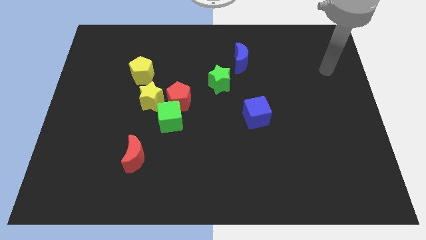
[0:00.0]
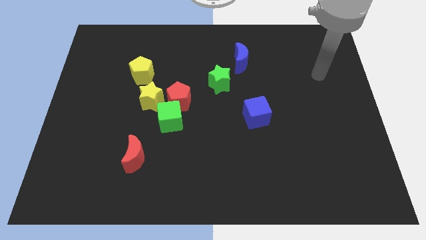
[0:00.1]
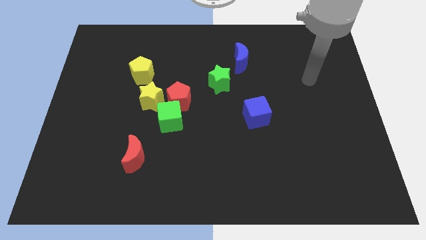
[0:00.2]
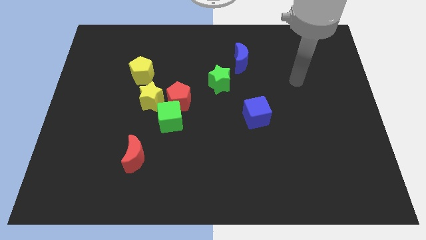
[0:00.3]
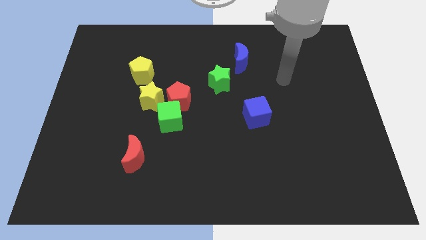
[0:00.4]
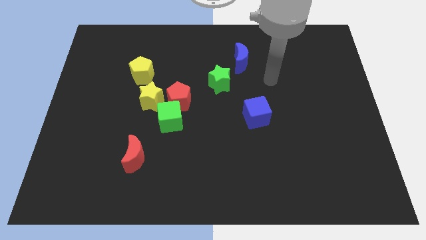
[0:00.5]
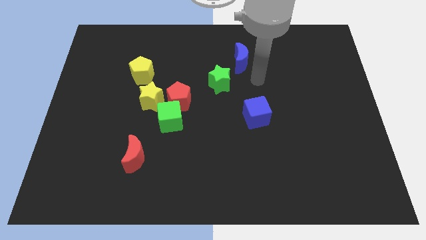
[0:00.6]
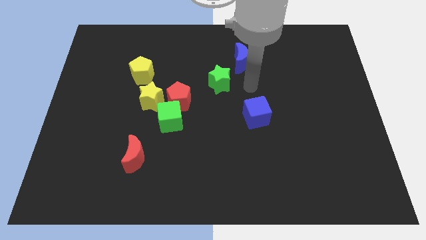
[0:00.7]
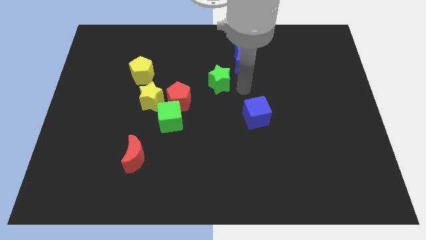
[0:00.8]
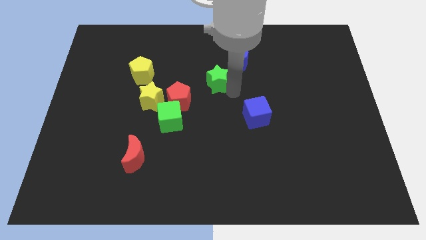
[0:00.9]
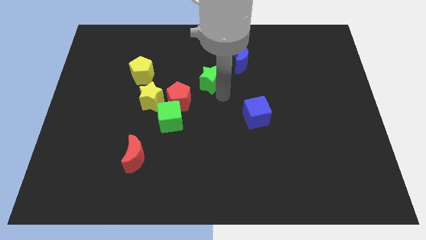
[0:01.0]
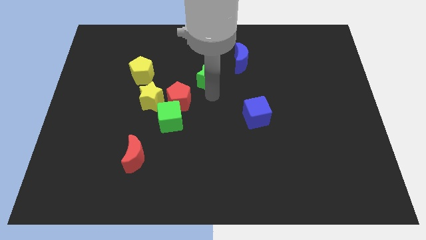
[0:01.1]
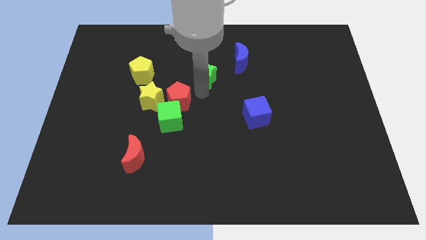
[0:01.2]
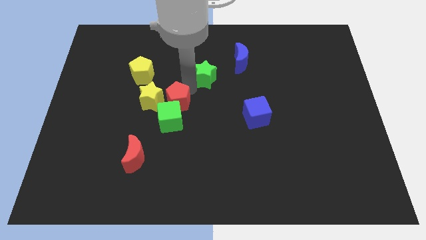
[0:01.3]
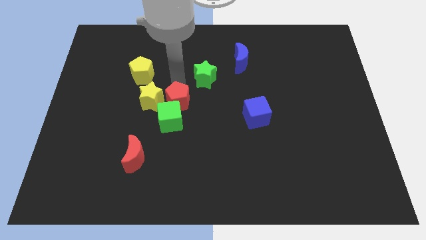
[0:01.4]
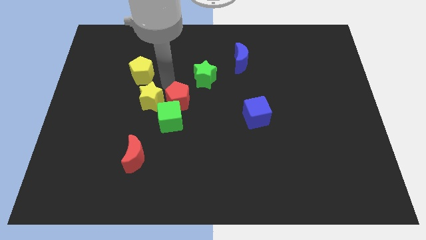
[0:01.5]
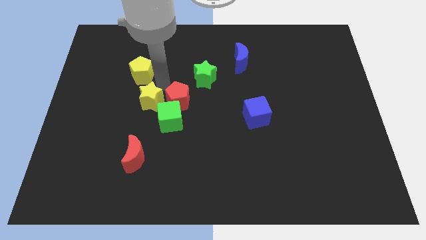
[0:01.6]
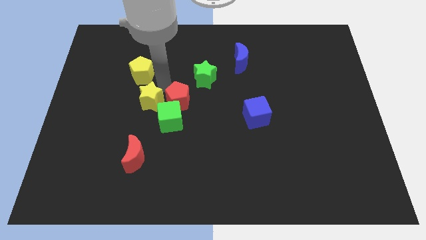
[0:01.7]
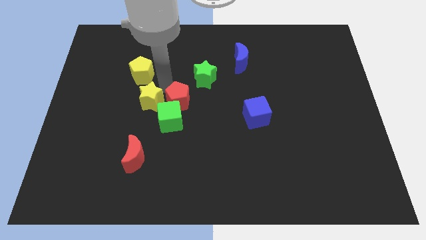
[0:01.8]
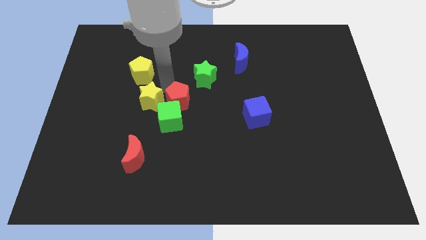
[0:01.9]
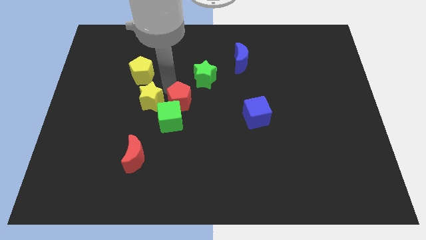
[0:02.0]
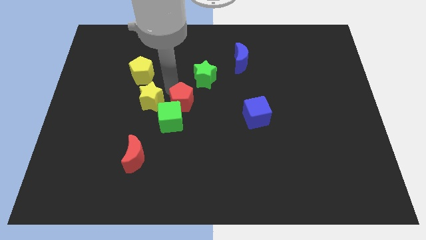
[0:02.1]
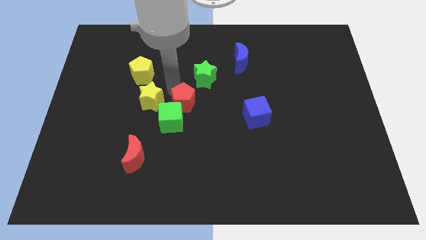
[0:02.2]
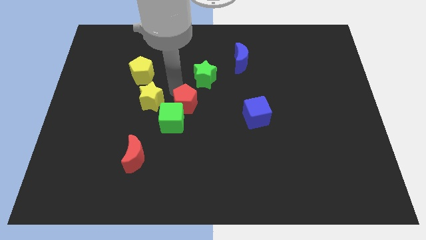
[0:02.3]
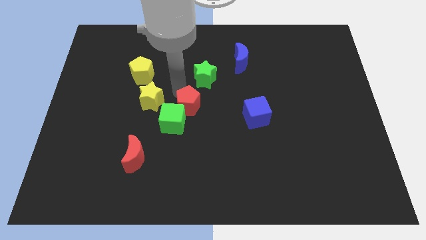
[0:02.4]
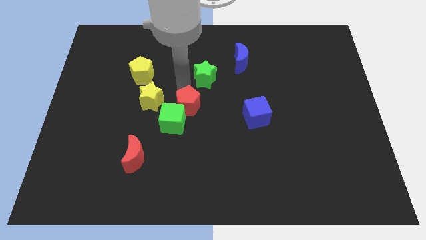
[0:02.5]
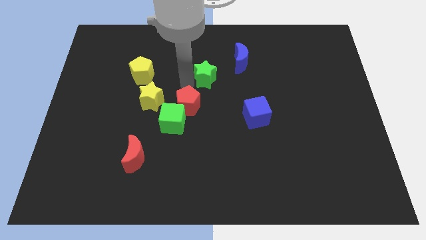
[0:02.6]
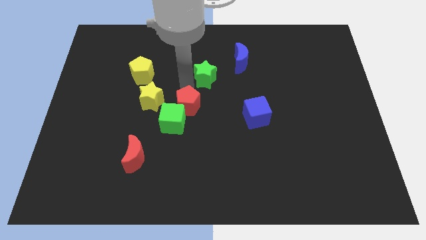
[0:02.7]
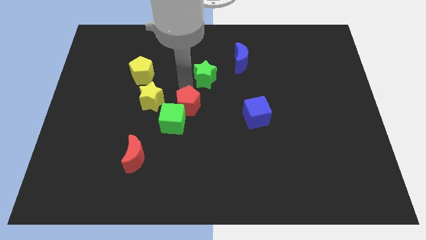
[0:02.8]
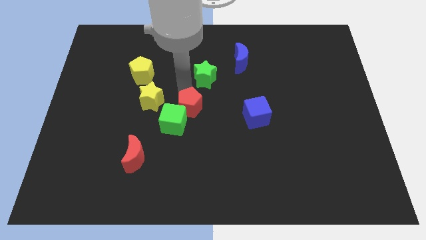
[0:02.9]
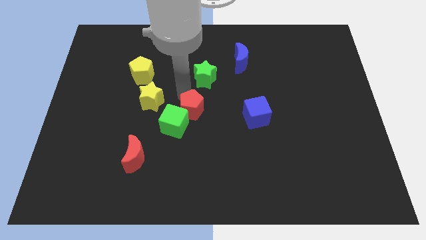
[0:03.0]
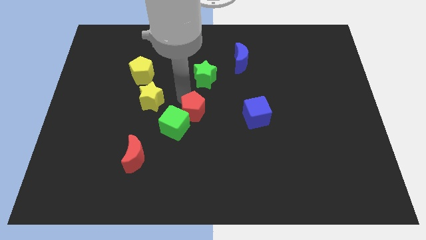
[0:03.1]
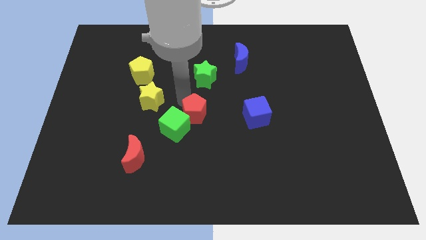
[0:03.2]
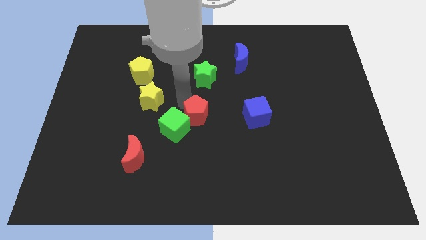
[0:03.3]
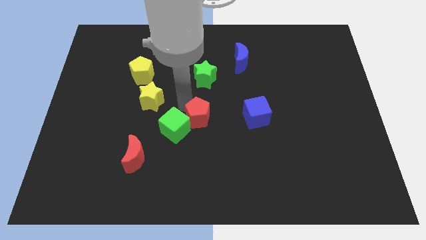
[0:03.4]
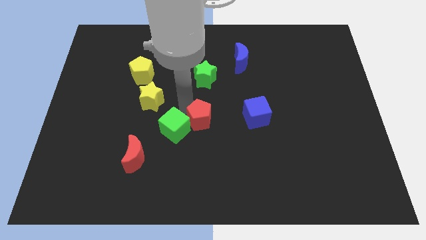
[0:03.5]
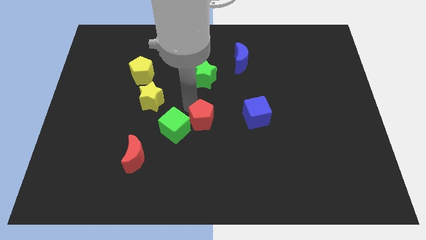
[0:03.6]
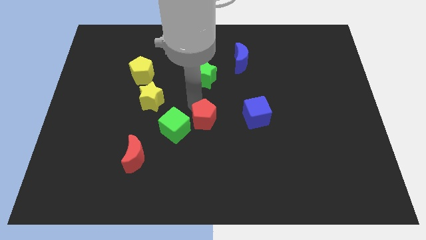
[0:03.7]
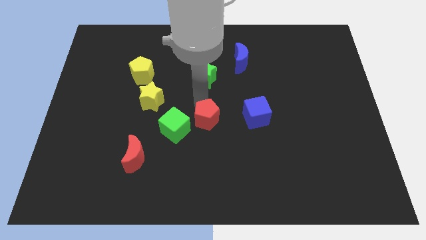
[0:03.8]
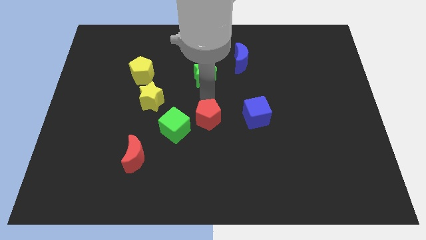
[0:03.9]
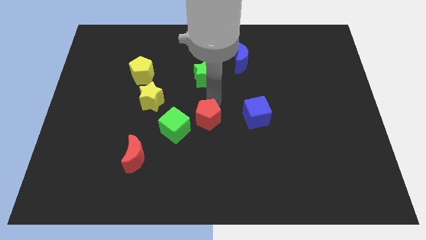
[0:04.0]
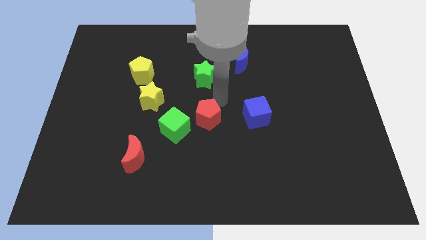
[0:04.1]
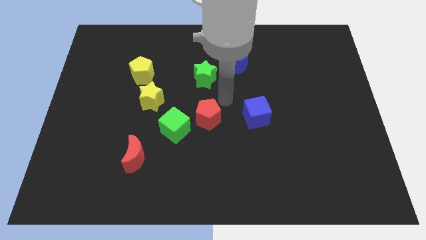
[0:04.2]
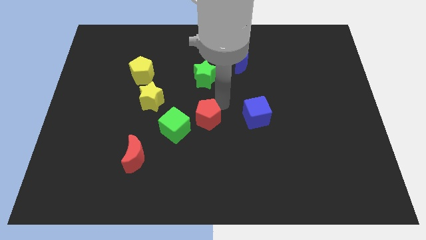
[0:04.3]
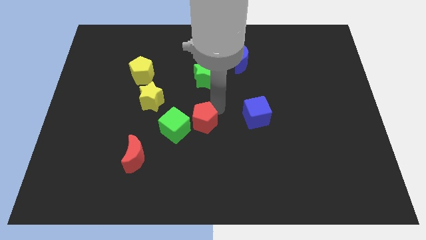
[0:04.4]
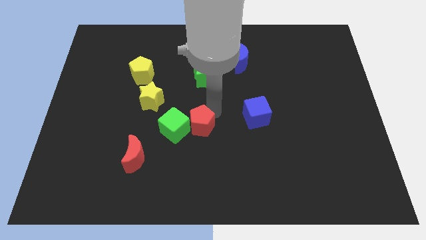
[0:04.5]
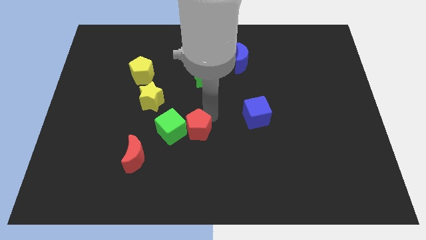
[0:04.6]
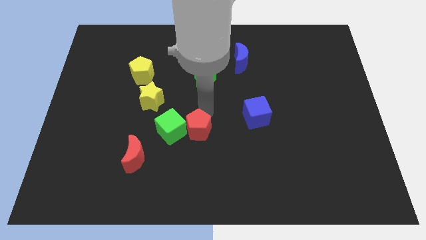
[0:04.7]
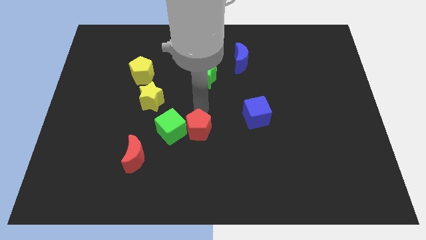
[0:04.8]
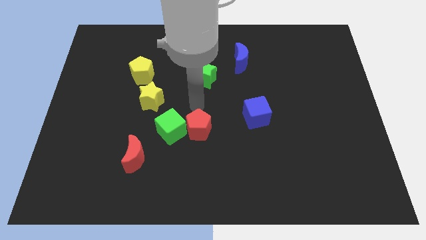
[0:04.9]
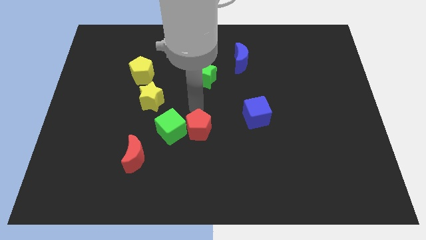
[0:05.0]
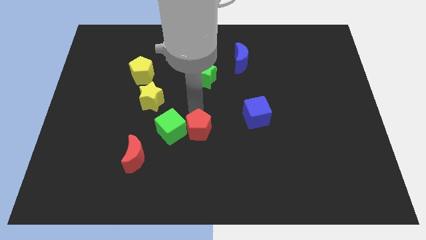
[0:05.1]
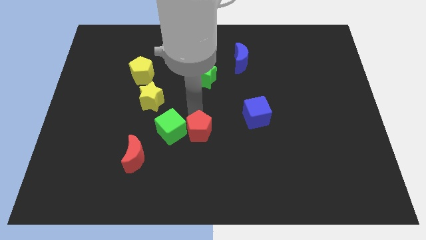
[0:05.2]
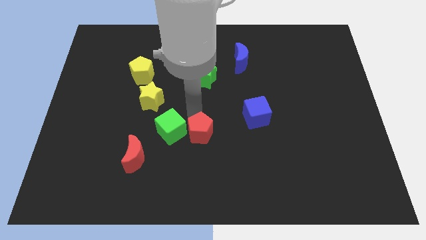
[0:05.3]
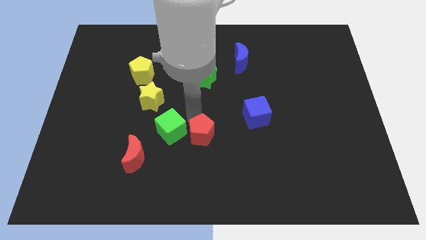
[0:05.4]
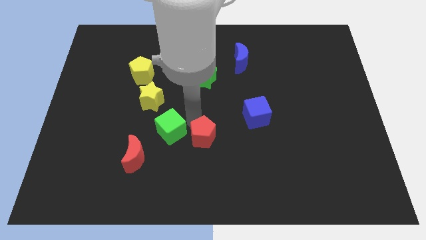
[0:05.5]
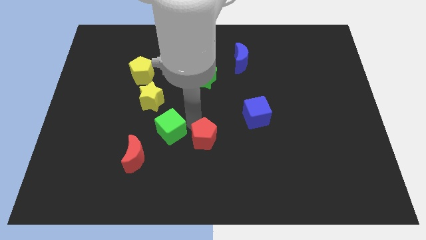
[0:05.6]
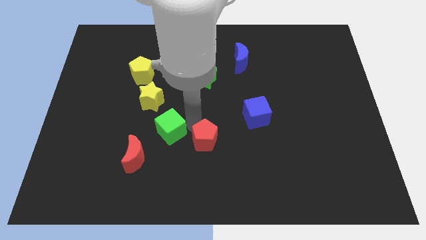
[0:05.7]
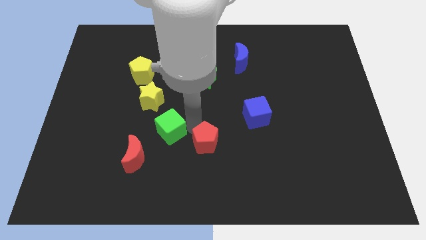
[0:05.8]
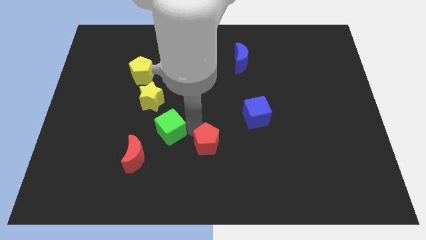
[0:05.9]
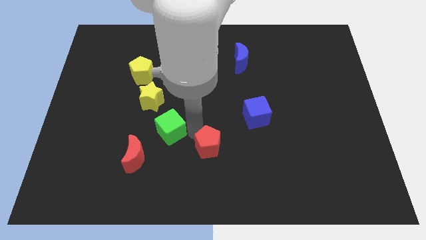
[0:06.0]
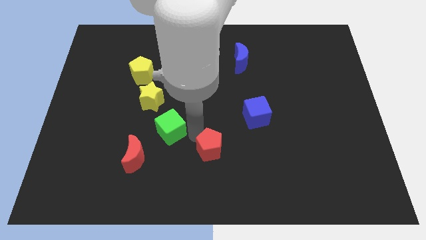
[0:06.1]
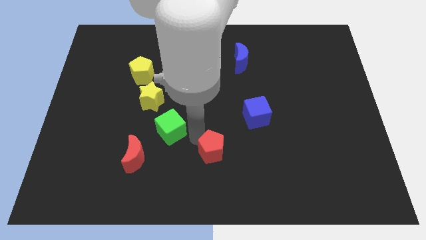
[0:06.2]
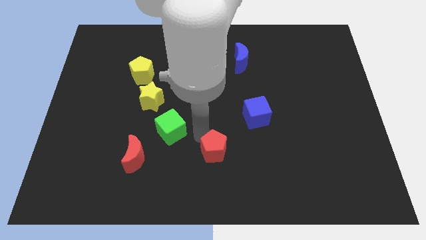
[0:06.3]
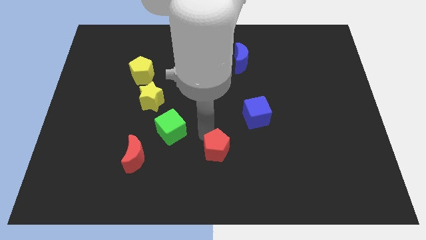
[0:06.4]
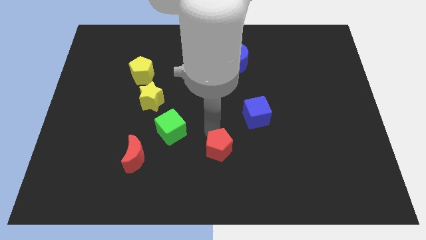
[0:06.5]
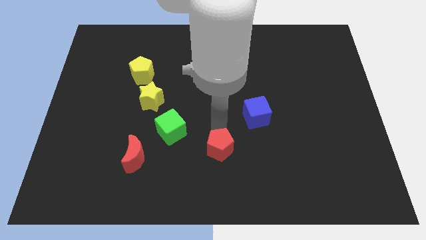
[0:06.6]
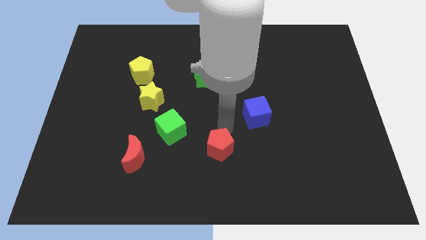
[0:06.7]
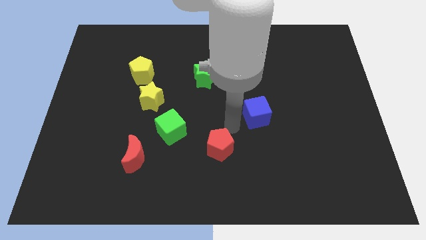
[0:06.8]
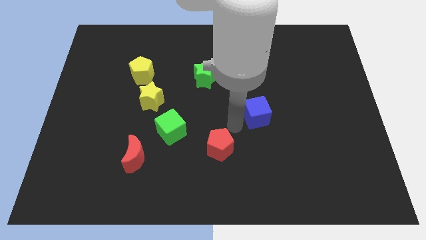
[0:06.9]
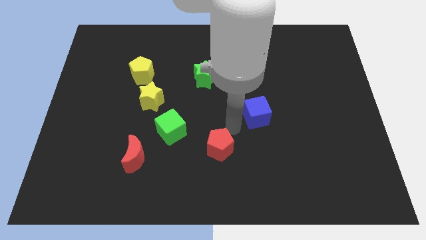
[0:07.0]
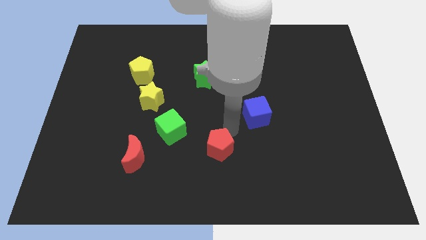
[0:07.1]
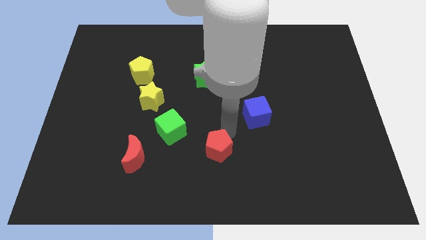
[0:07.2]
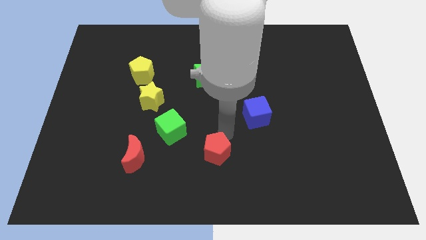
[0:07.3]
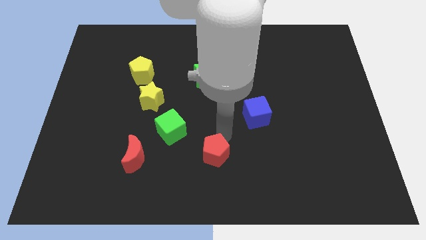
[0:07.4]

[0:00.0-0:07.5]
slide the red pentagon to the bottom
